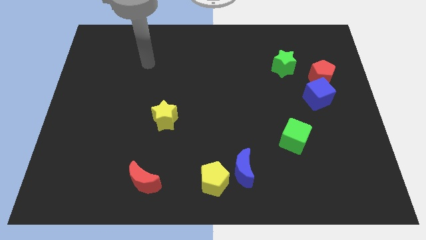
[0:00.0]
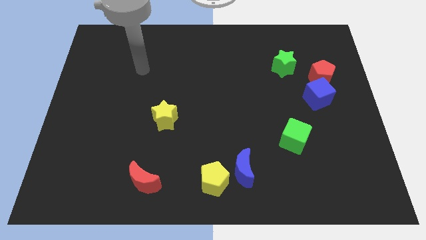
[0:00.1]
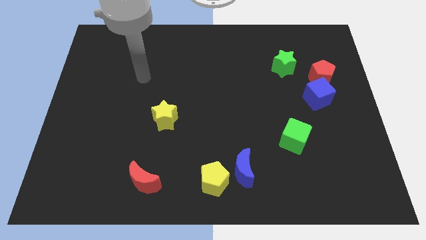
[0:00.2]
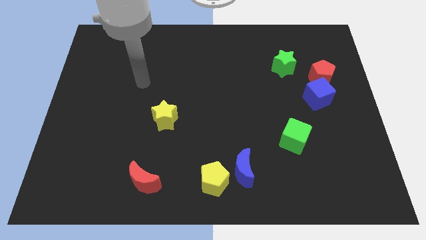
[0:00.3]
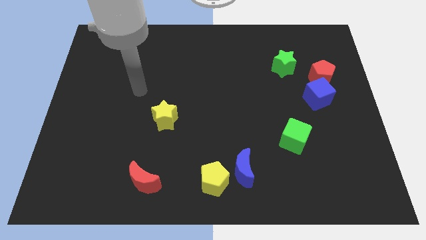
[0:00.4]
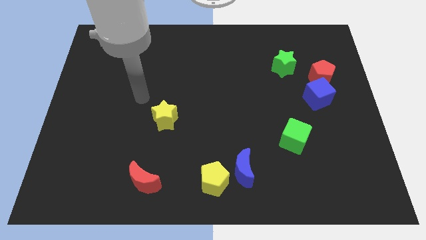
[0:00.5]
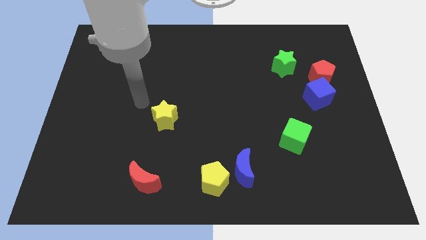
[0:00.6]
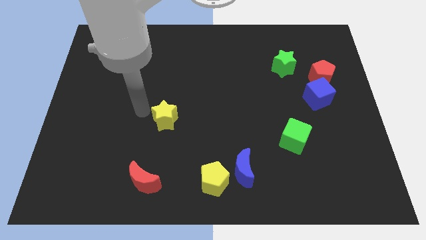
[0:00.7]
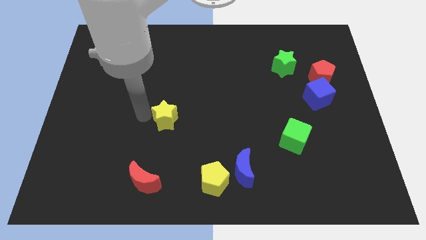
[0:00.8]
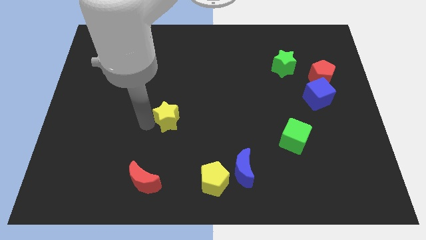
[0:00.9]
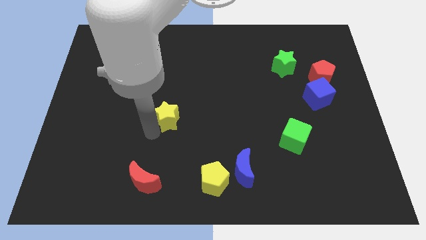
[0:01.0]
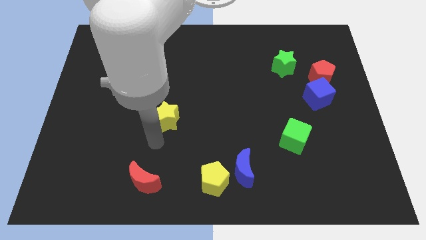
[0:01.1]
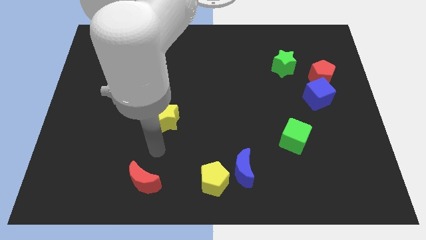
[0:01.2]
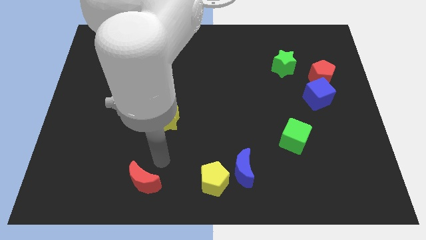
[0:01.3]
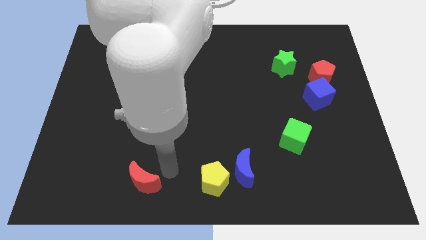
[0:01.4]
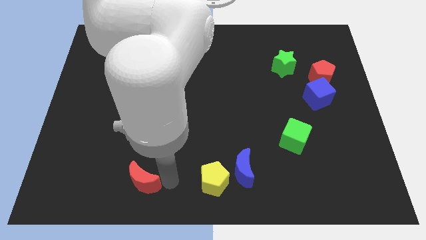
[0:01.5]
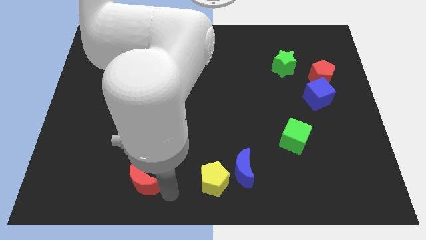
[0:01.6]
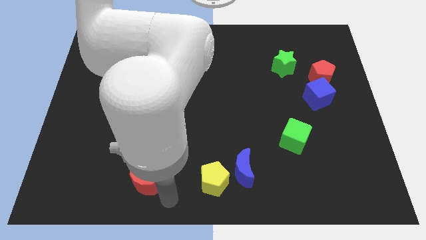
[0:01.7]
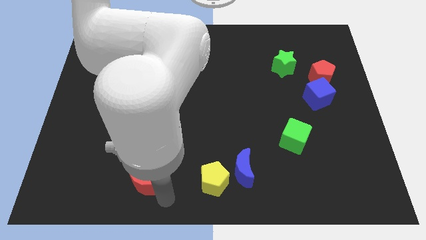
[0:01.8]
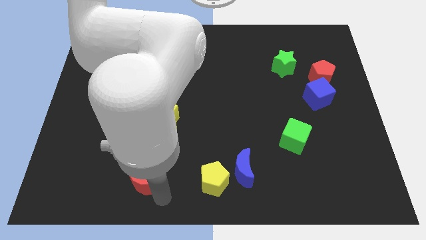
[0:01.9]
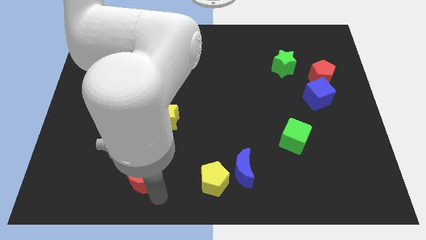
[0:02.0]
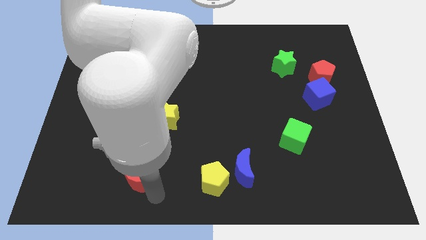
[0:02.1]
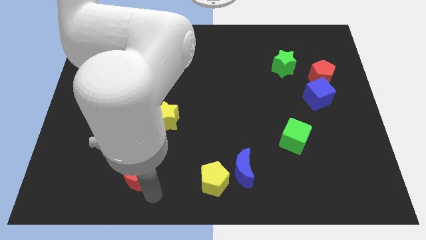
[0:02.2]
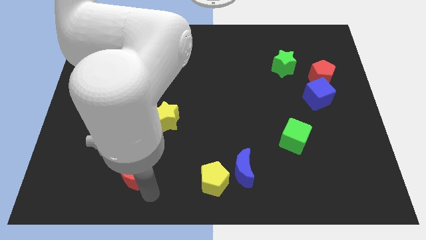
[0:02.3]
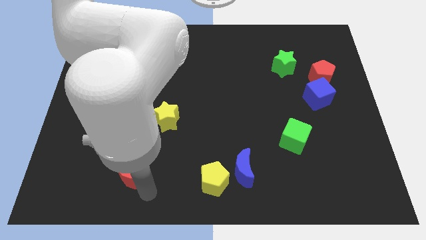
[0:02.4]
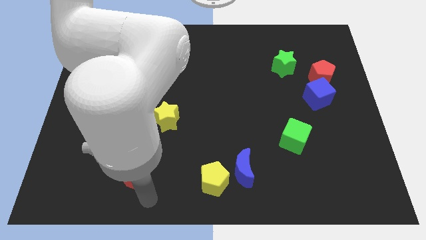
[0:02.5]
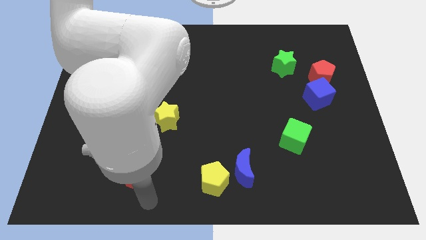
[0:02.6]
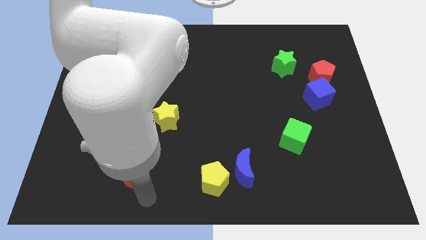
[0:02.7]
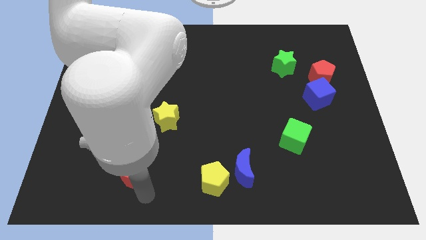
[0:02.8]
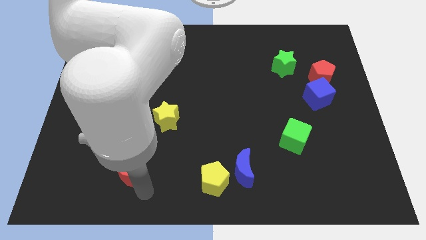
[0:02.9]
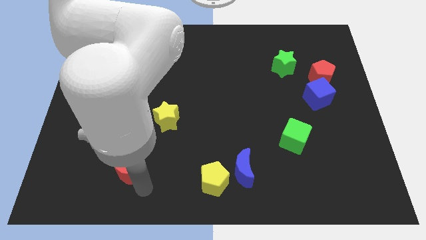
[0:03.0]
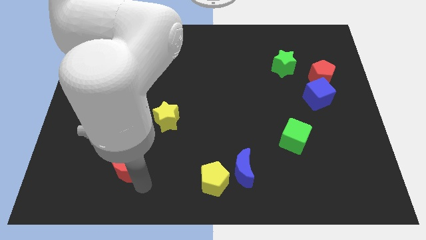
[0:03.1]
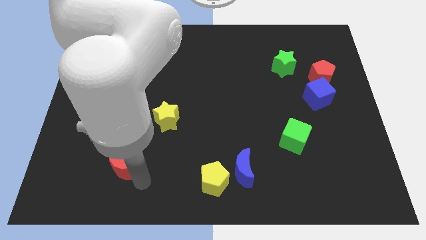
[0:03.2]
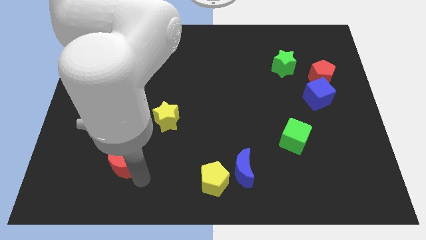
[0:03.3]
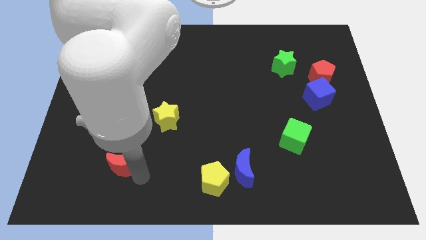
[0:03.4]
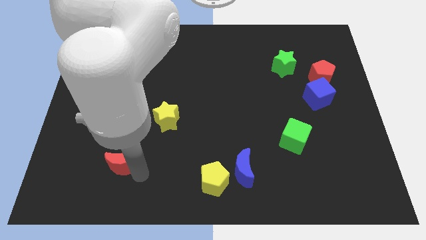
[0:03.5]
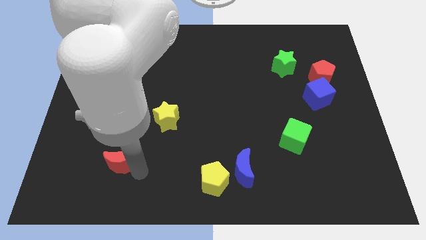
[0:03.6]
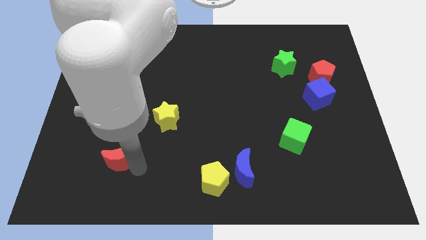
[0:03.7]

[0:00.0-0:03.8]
slightly push the red moon upwards and left

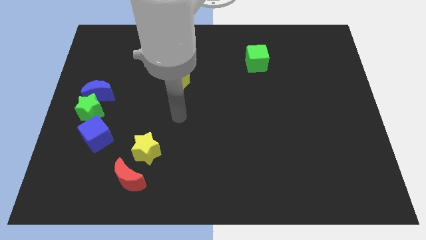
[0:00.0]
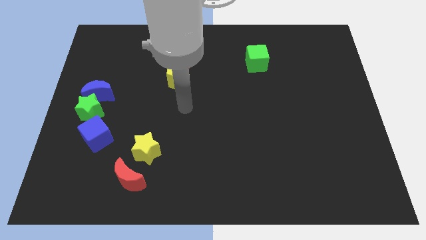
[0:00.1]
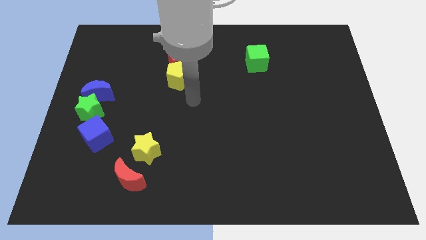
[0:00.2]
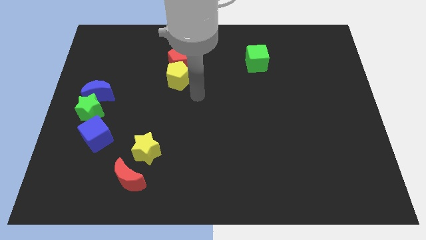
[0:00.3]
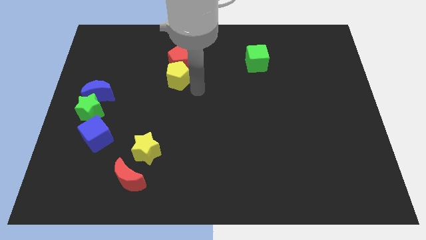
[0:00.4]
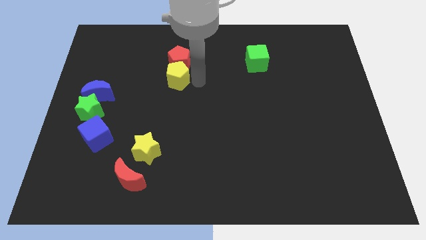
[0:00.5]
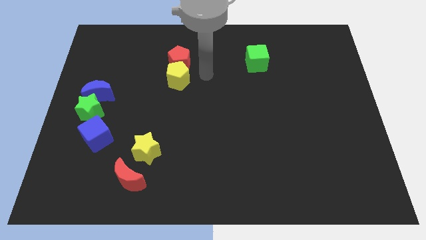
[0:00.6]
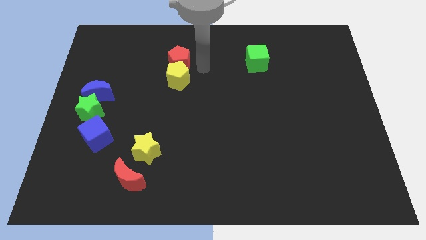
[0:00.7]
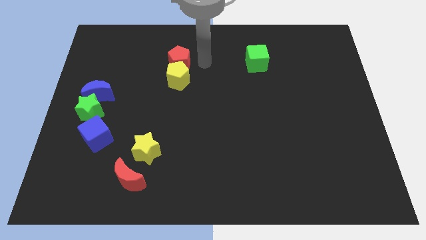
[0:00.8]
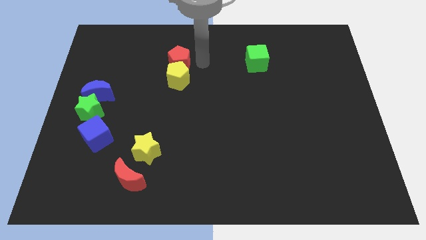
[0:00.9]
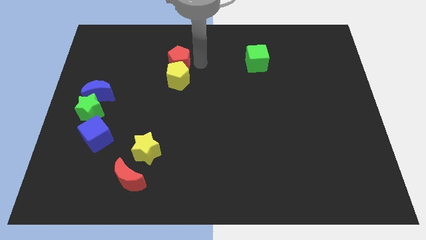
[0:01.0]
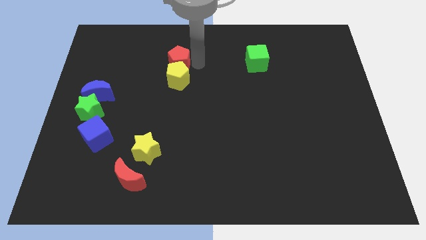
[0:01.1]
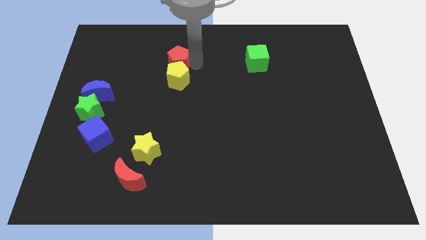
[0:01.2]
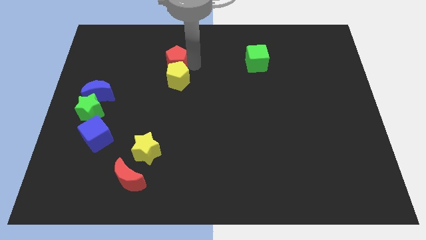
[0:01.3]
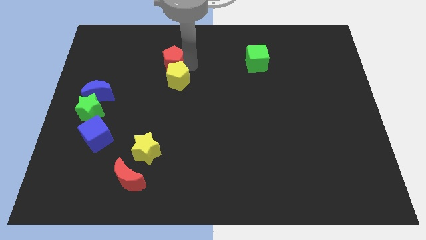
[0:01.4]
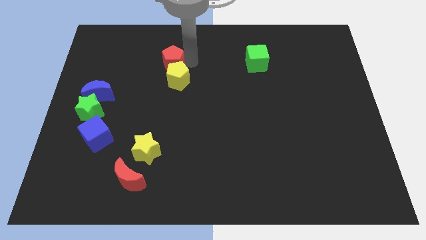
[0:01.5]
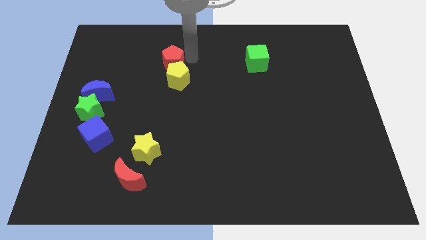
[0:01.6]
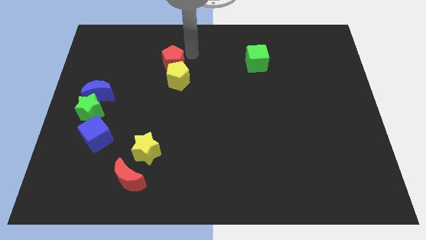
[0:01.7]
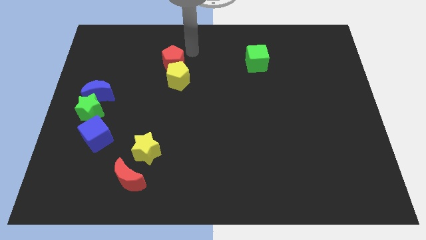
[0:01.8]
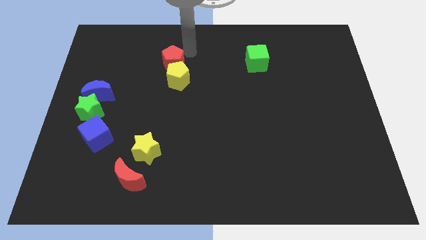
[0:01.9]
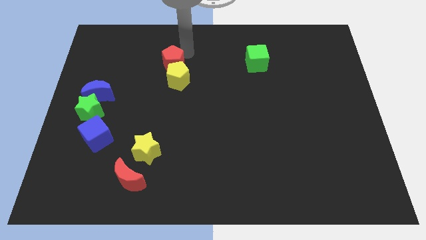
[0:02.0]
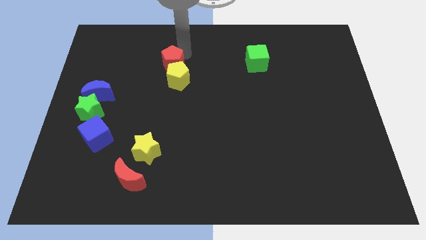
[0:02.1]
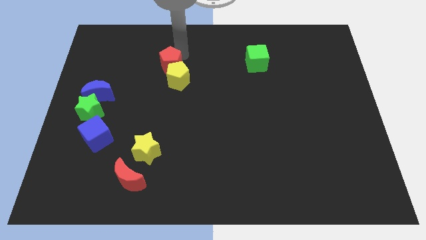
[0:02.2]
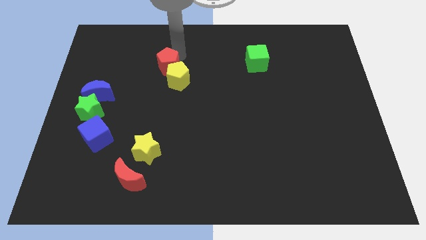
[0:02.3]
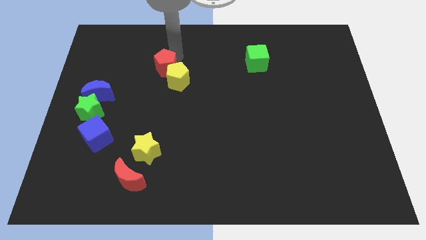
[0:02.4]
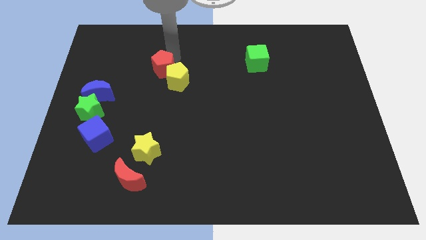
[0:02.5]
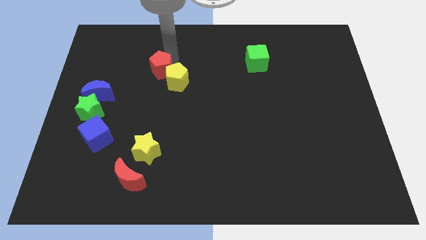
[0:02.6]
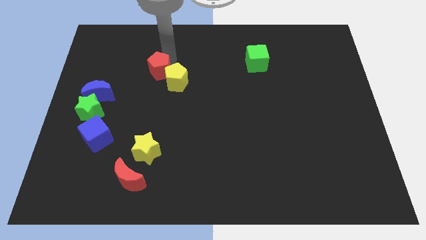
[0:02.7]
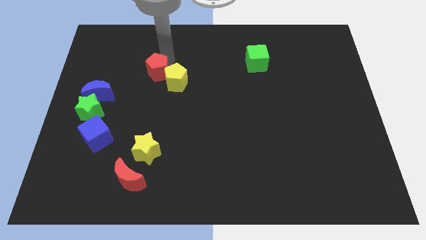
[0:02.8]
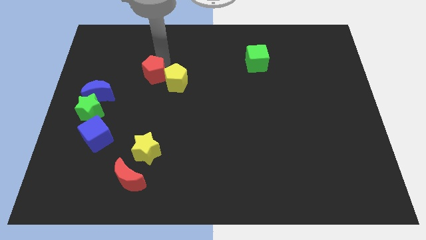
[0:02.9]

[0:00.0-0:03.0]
slide the red pentagon downwards and left slightly

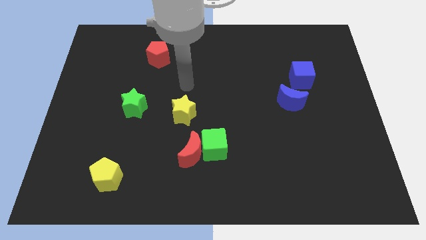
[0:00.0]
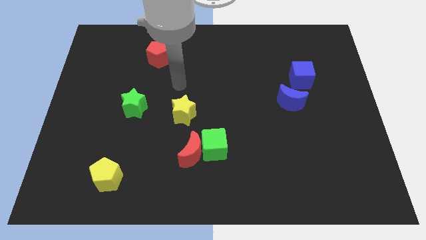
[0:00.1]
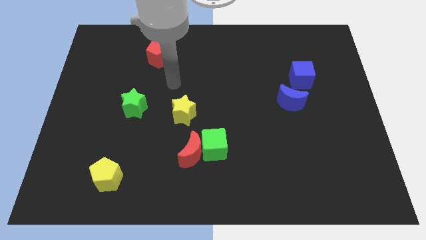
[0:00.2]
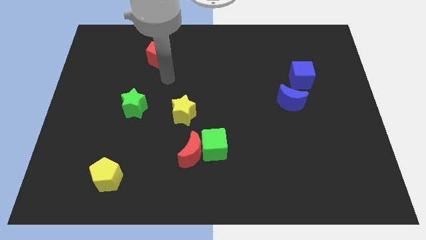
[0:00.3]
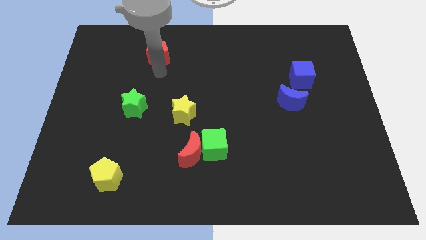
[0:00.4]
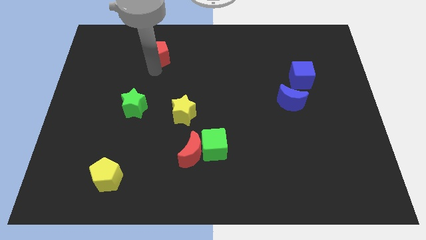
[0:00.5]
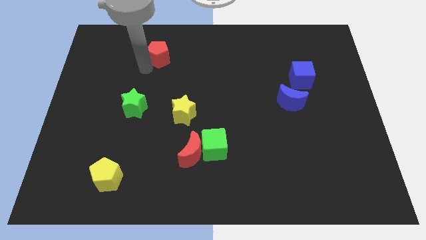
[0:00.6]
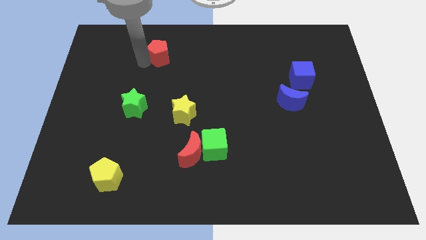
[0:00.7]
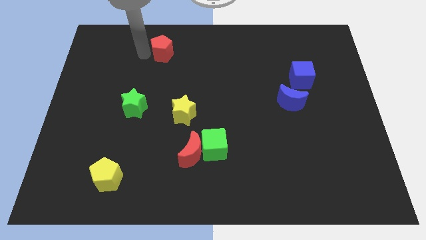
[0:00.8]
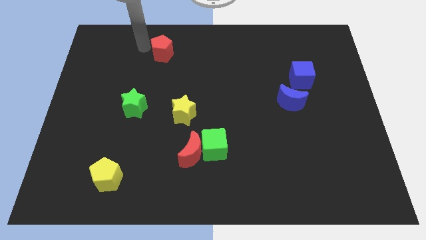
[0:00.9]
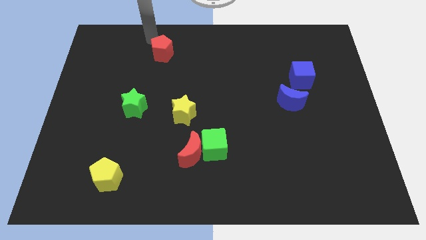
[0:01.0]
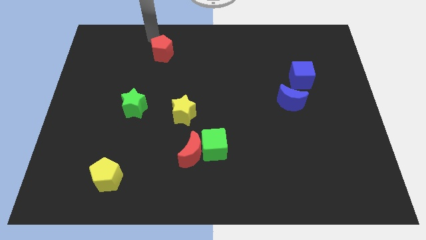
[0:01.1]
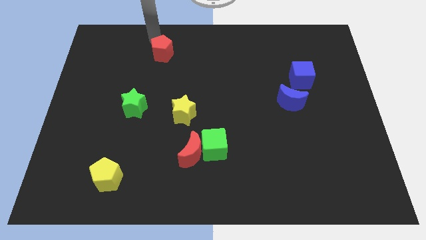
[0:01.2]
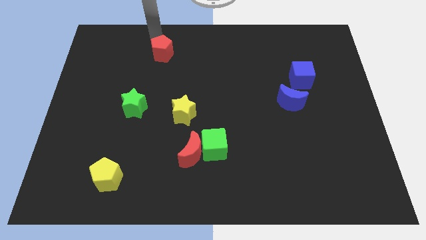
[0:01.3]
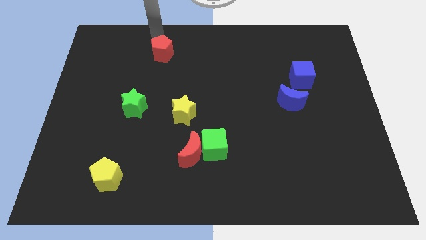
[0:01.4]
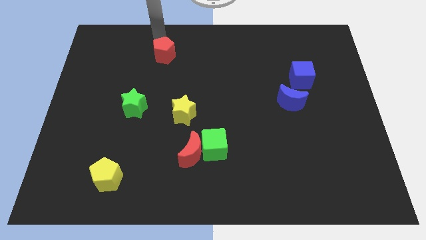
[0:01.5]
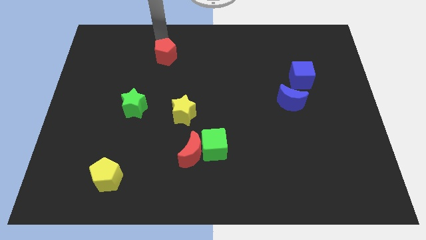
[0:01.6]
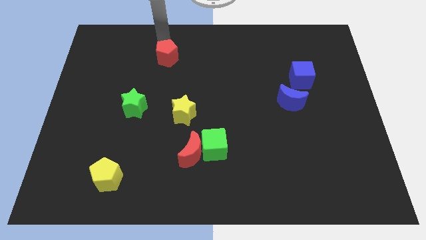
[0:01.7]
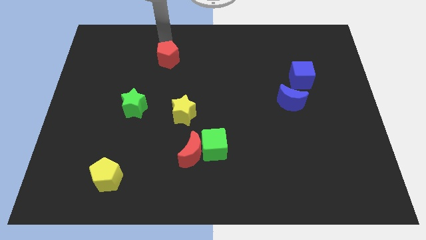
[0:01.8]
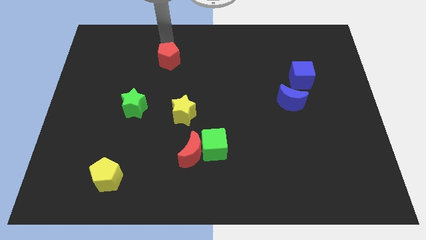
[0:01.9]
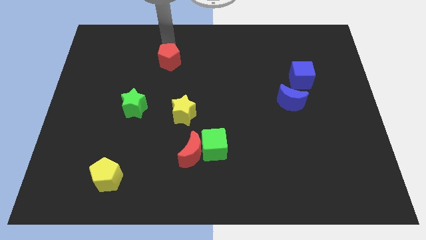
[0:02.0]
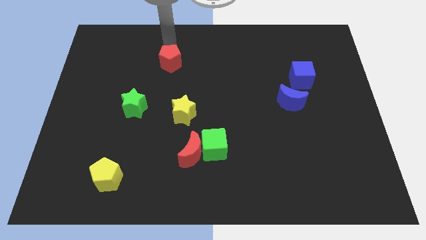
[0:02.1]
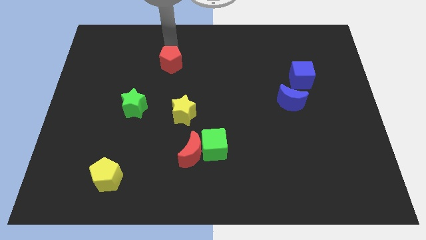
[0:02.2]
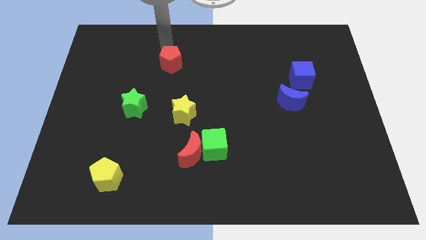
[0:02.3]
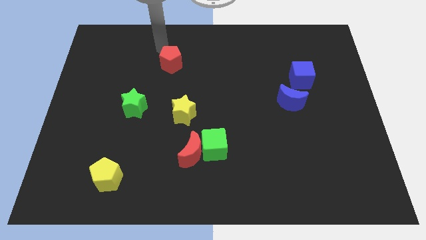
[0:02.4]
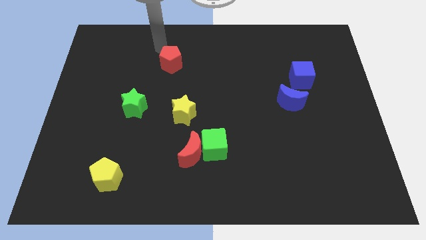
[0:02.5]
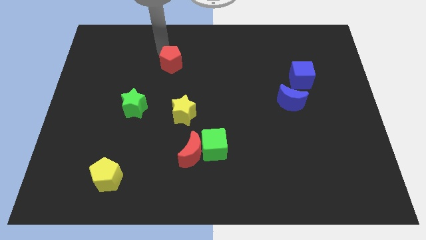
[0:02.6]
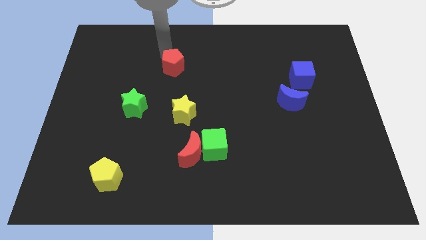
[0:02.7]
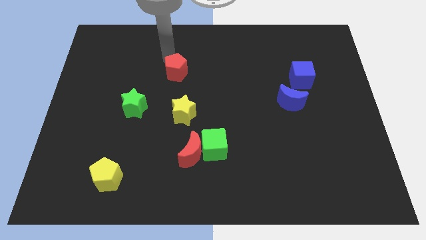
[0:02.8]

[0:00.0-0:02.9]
push the red pentagon a little downwards and to the right
